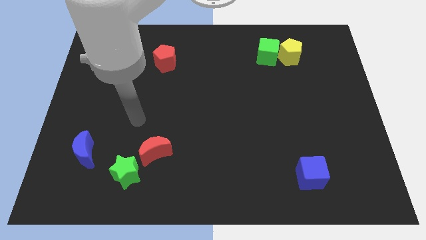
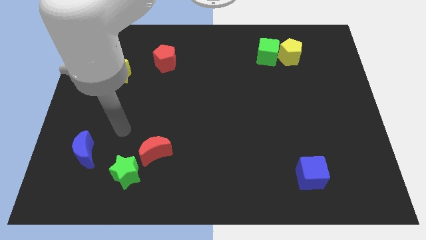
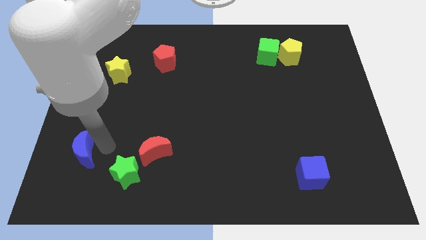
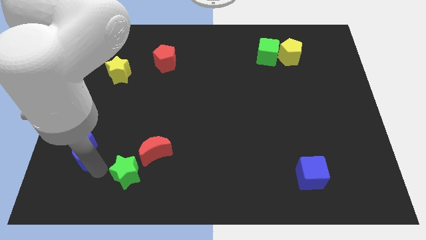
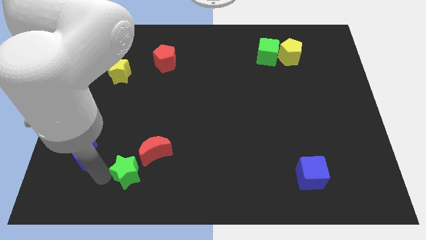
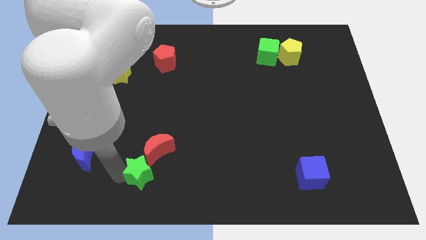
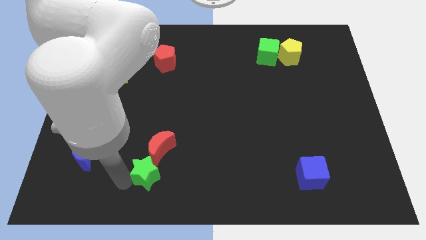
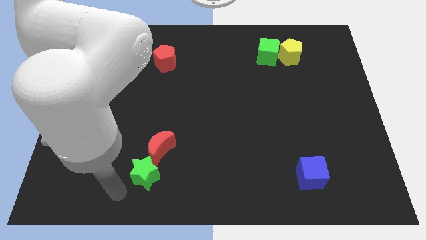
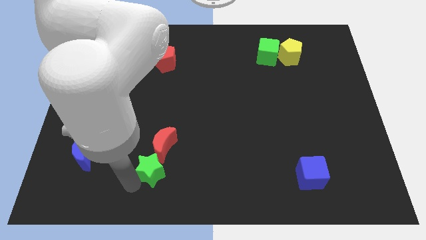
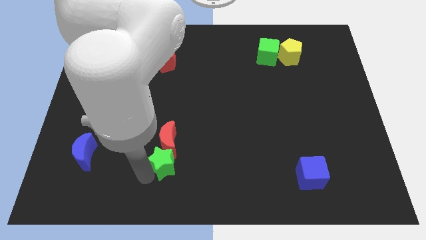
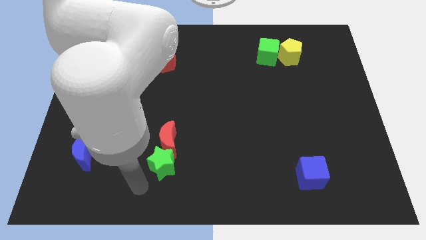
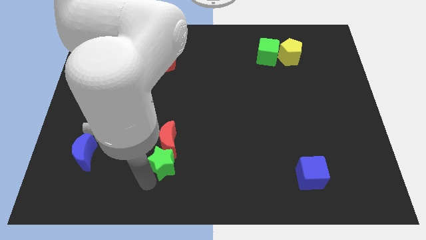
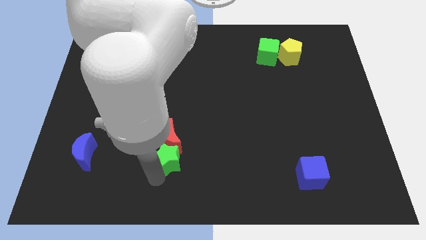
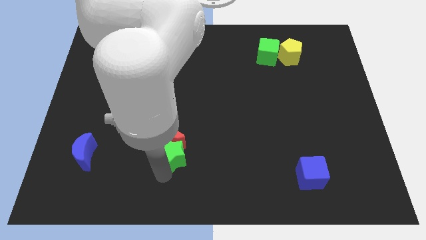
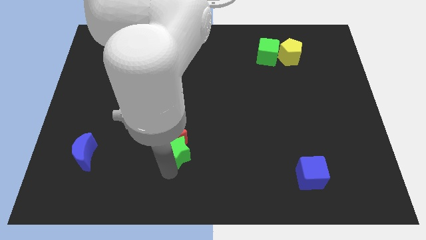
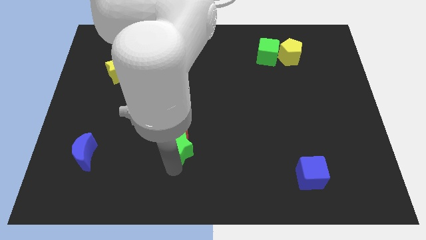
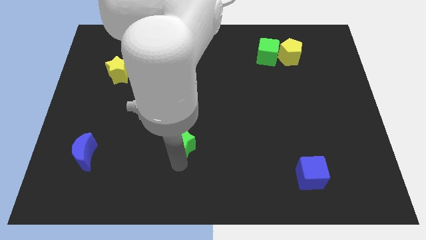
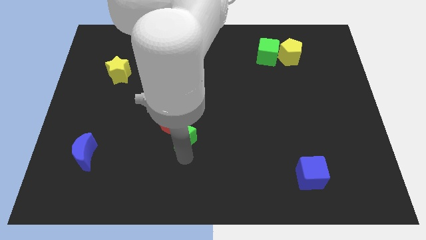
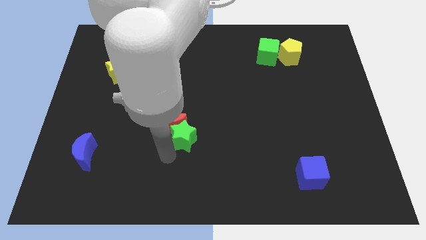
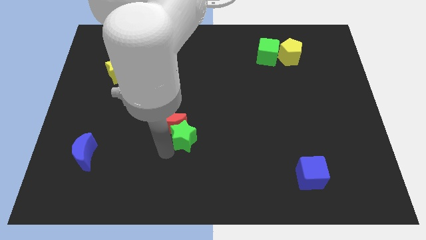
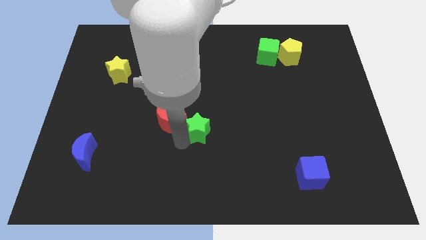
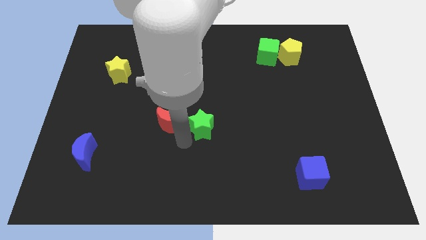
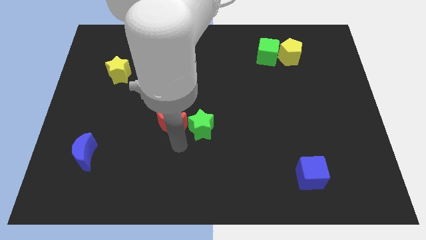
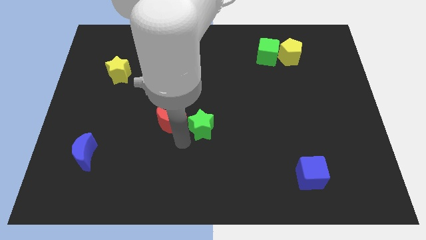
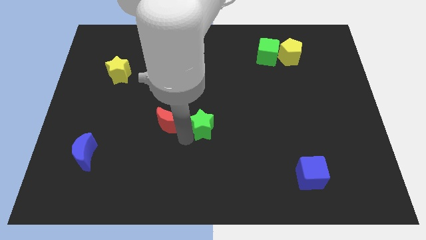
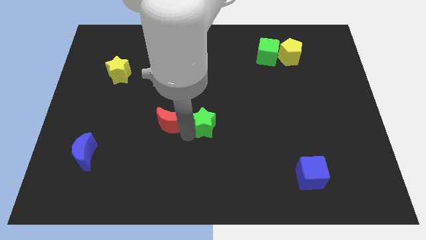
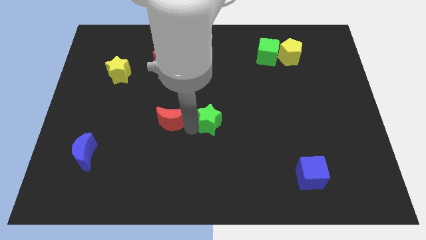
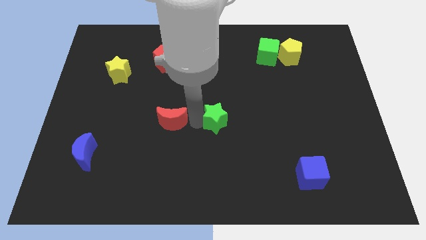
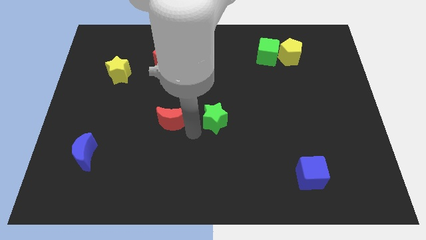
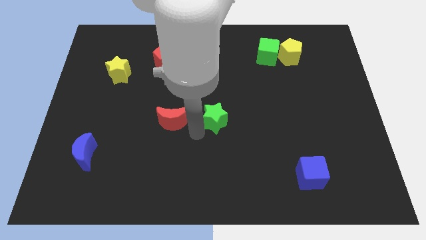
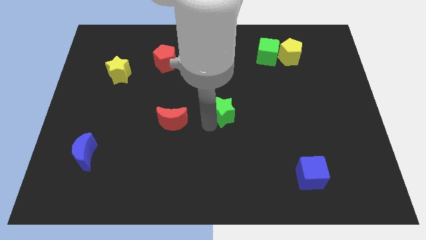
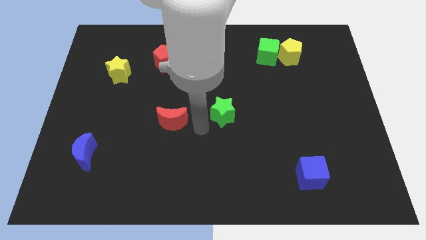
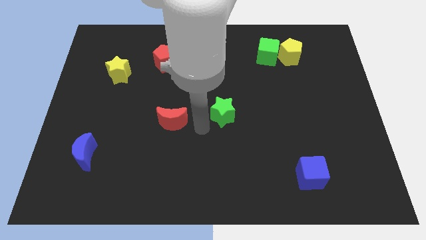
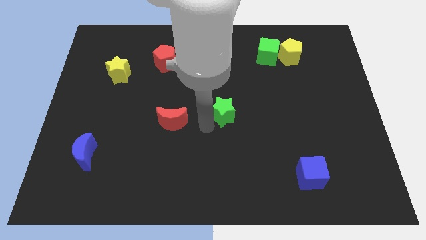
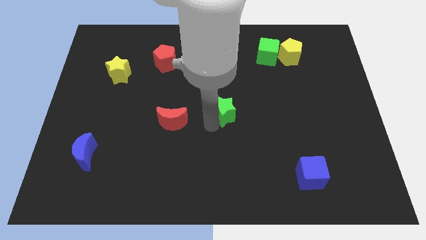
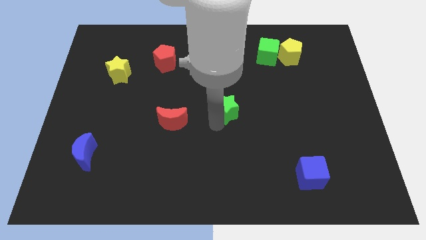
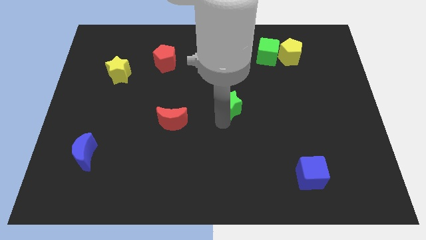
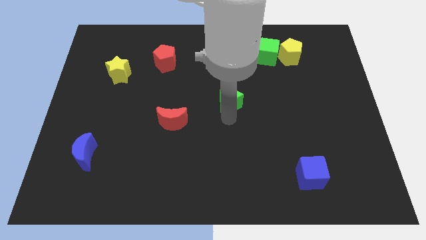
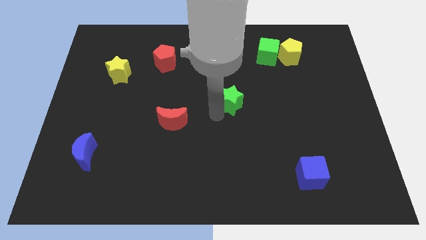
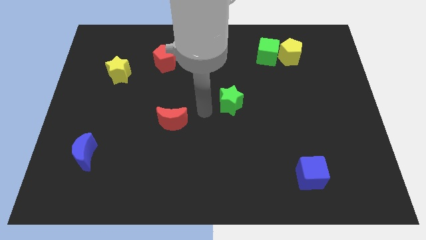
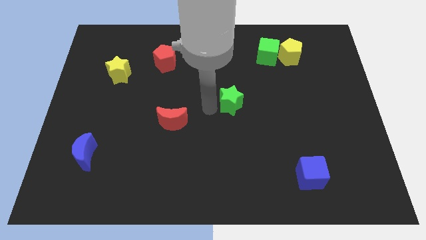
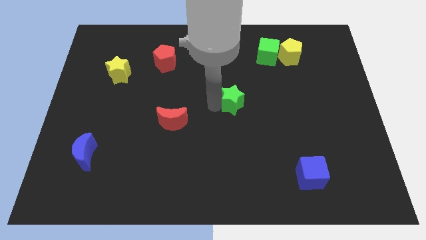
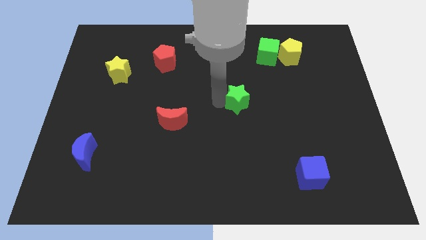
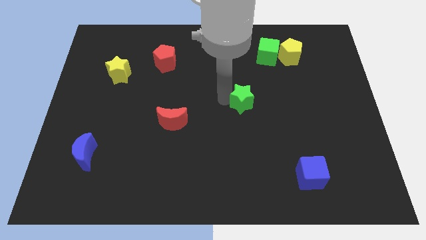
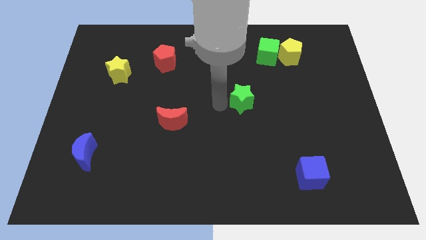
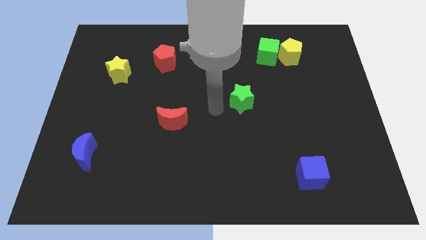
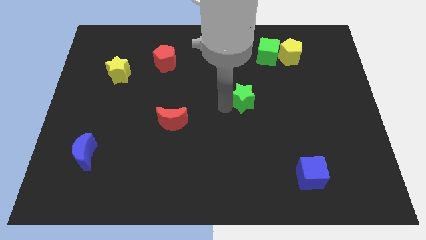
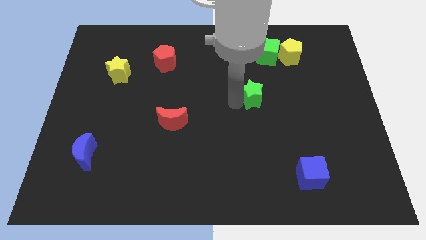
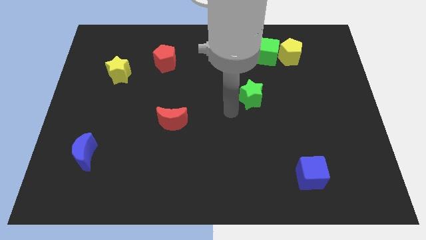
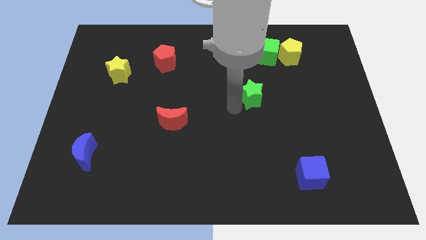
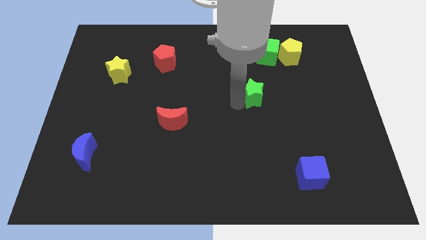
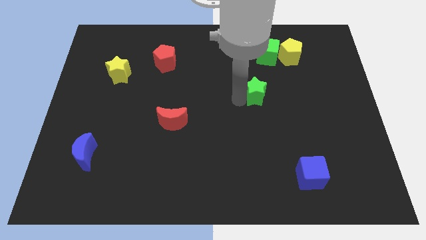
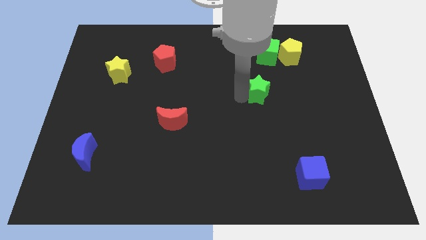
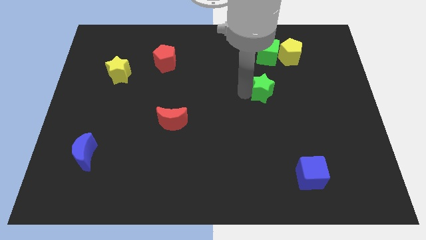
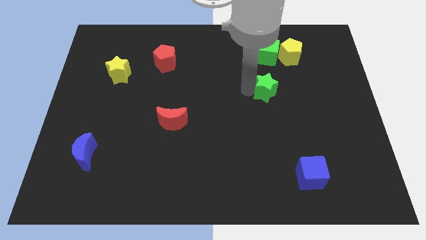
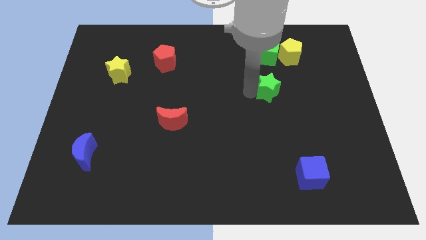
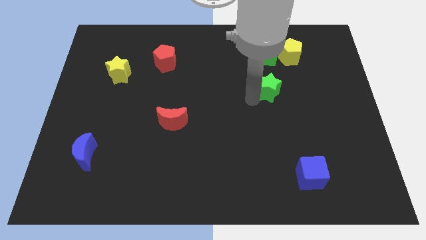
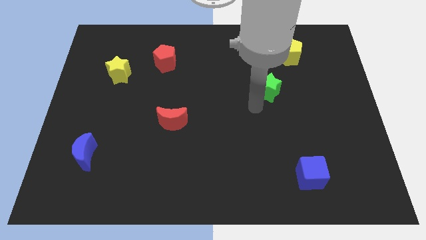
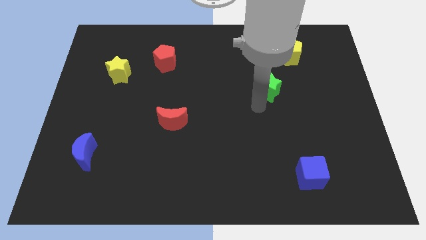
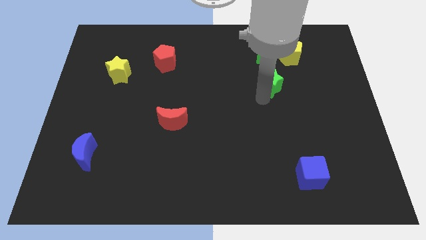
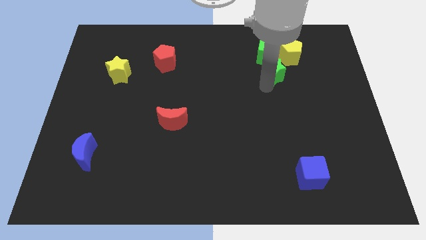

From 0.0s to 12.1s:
put the green star to the bottom right of the green cube

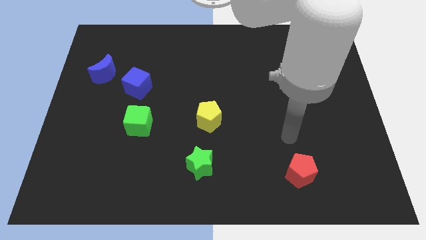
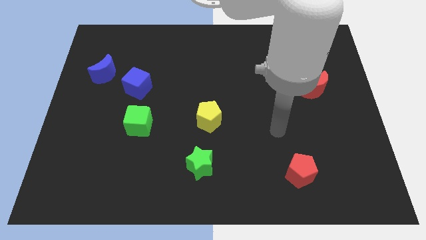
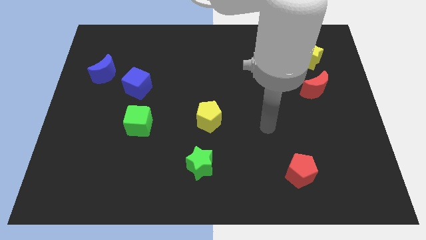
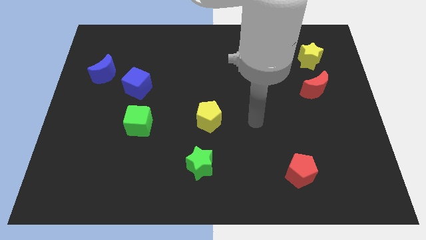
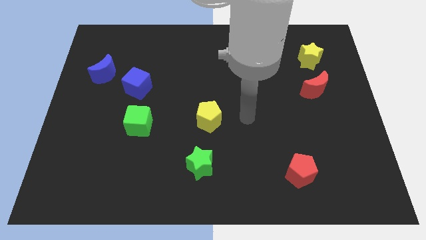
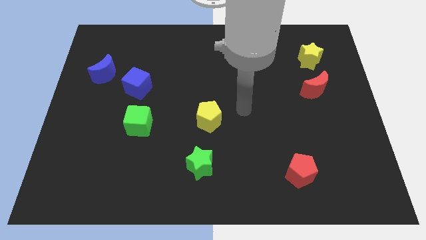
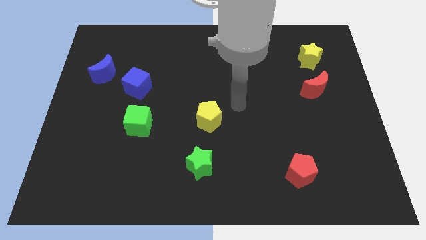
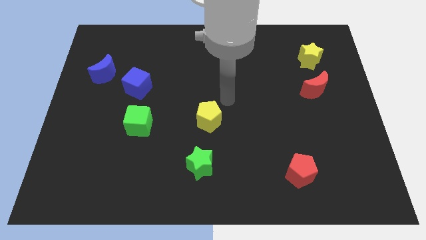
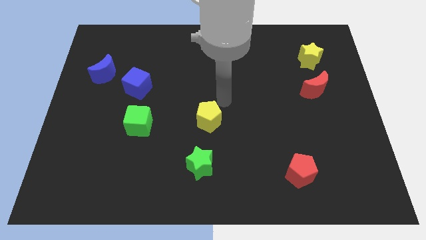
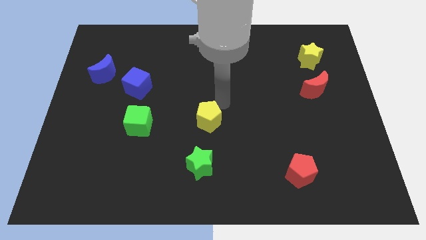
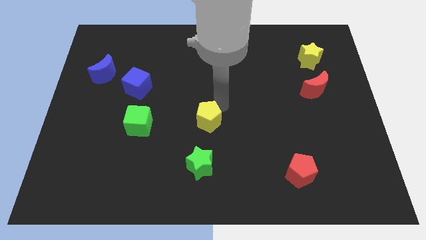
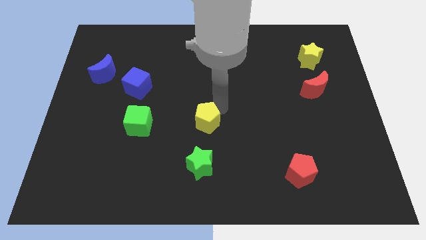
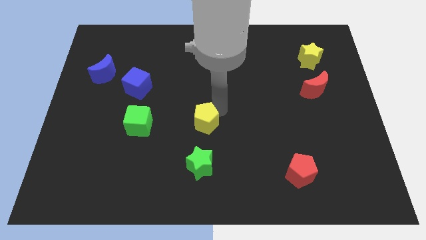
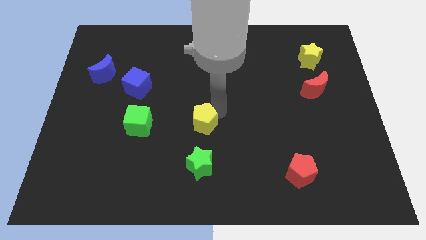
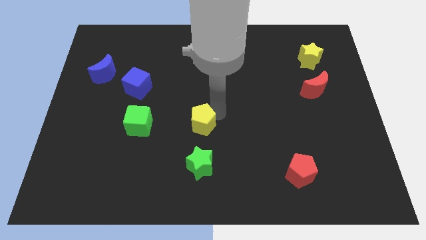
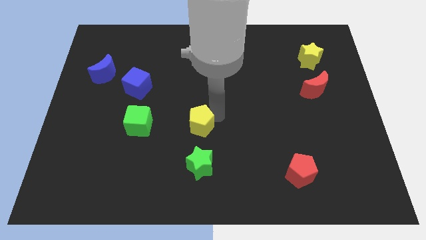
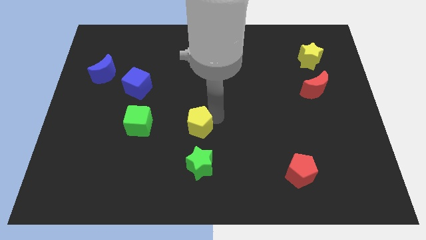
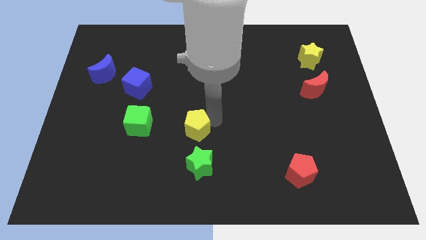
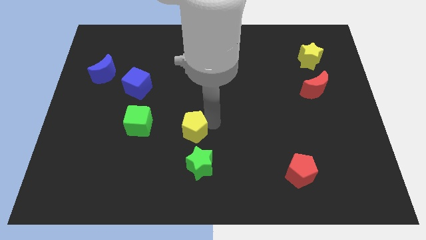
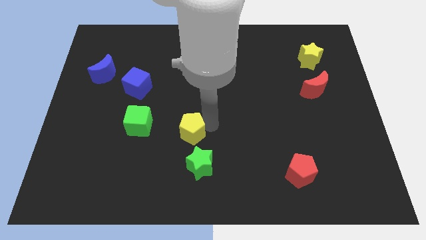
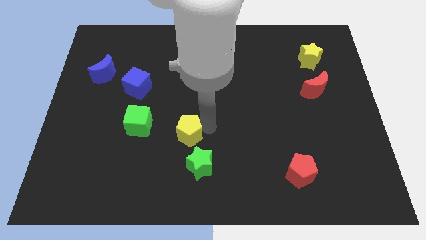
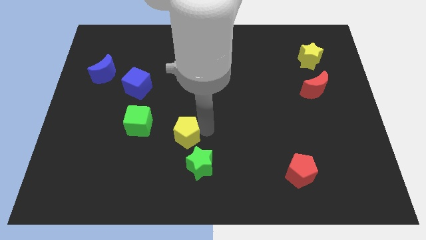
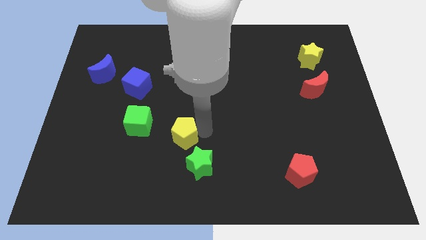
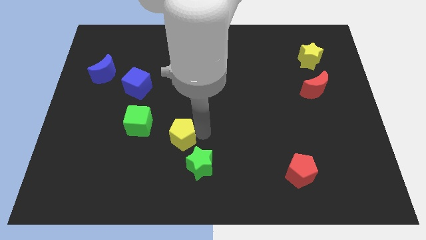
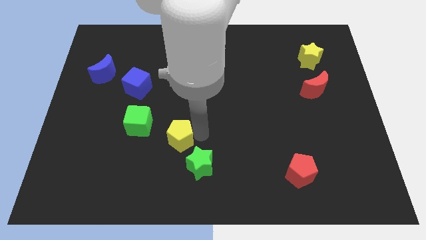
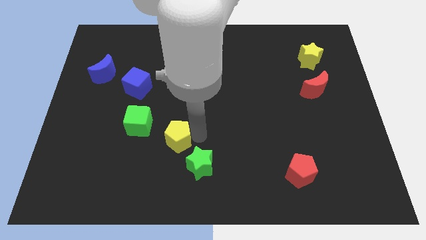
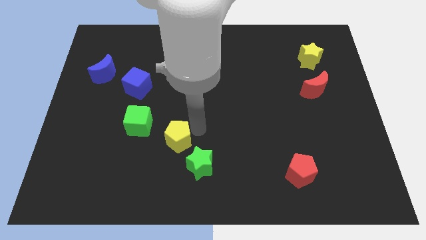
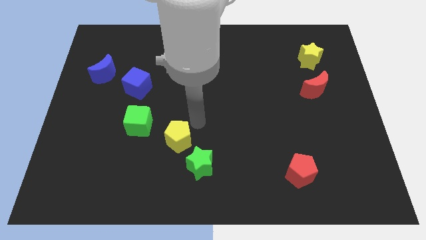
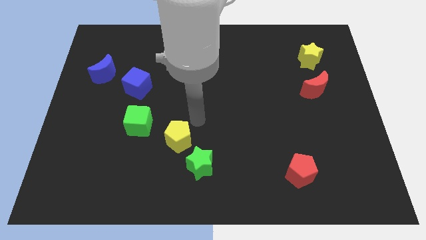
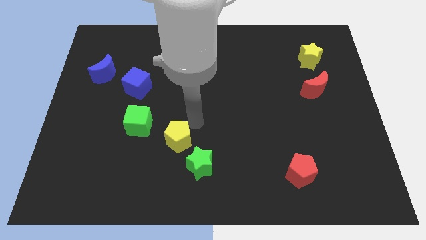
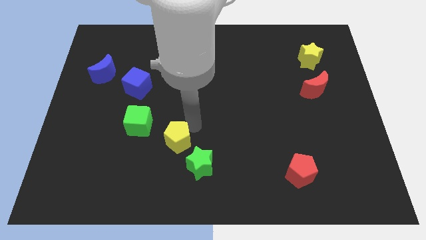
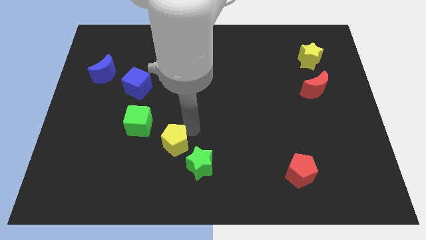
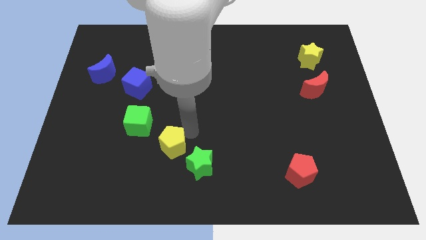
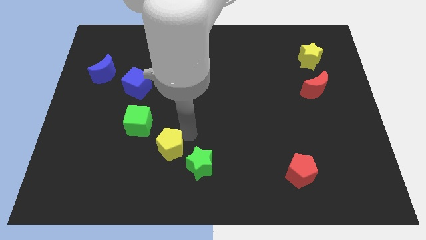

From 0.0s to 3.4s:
slide the yellow pentagon just left of the green star
